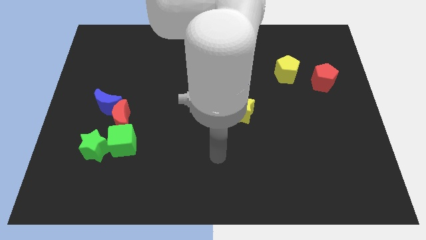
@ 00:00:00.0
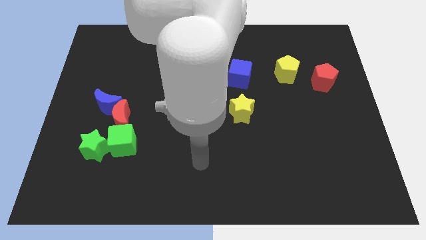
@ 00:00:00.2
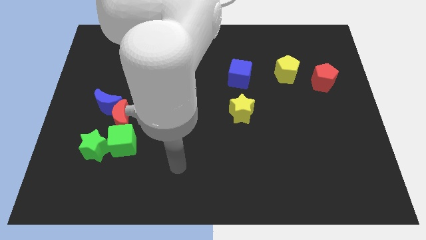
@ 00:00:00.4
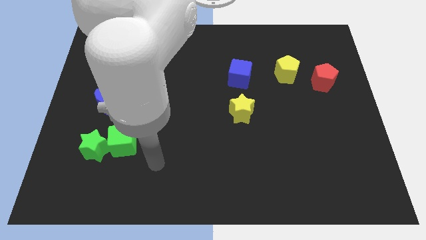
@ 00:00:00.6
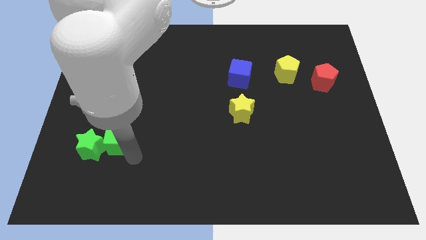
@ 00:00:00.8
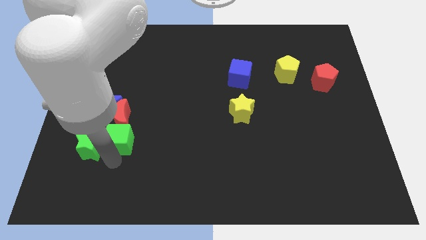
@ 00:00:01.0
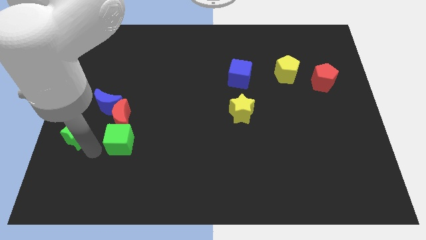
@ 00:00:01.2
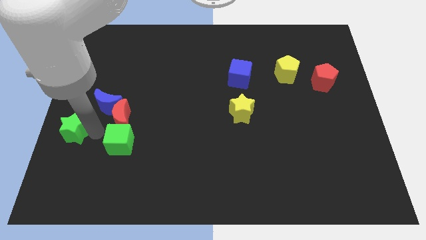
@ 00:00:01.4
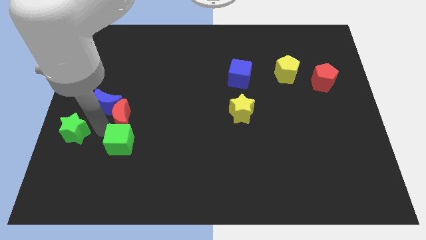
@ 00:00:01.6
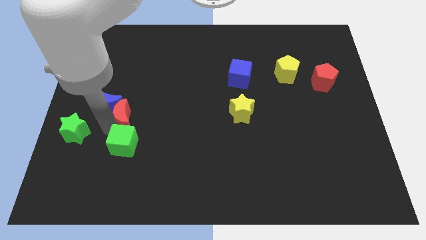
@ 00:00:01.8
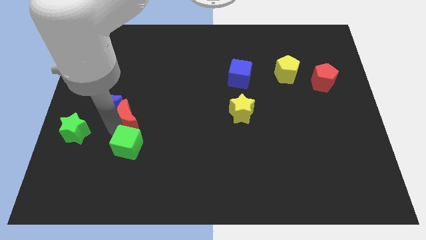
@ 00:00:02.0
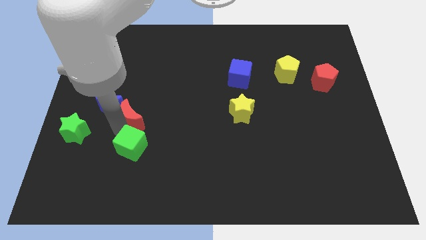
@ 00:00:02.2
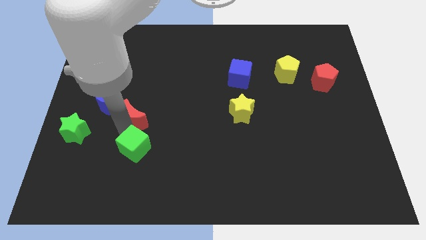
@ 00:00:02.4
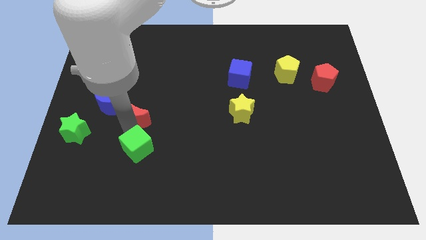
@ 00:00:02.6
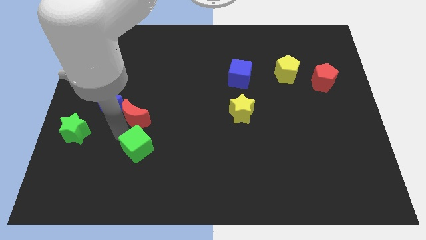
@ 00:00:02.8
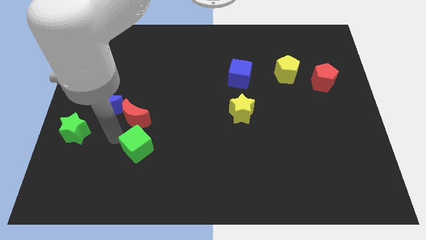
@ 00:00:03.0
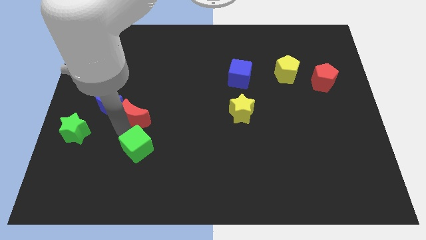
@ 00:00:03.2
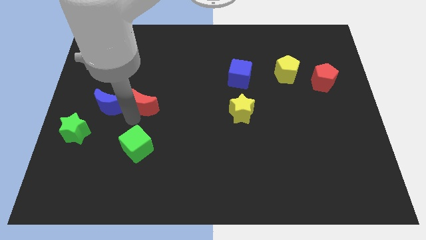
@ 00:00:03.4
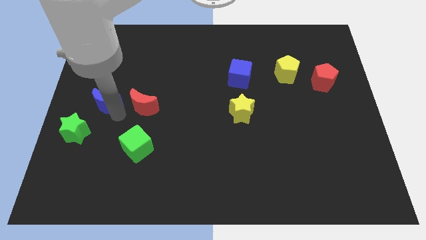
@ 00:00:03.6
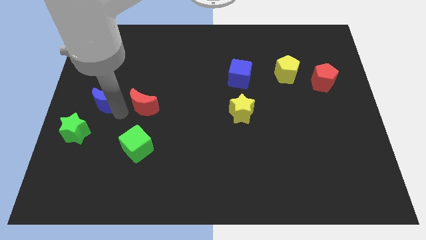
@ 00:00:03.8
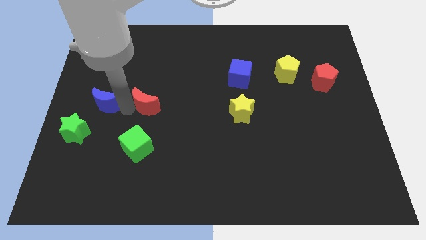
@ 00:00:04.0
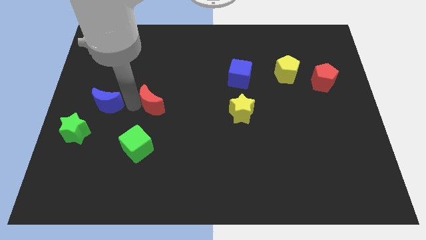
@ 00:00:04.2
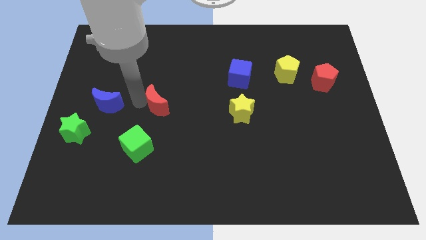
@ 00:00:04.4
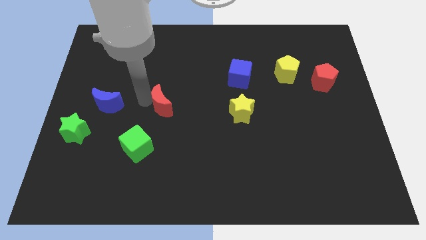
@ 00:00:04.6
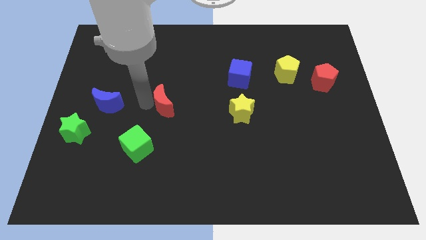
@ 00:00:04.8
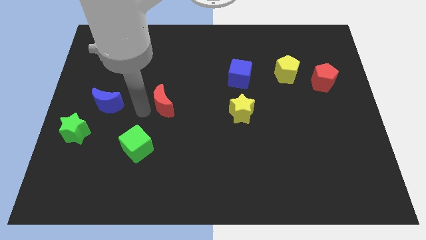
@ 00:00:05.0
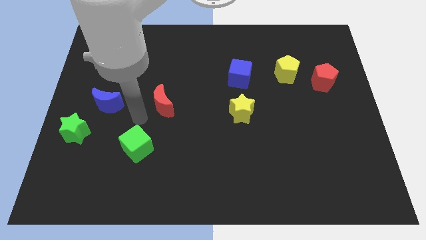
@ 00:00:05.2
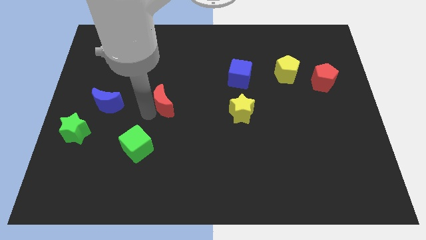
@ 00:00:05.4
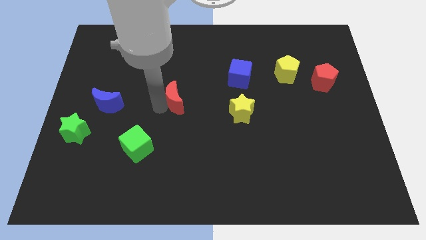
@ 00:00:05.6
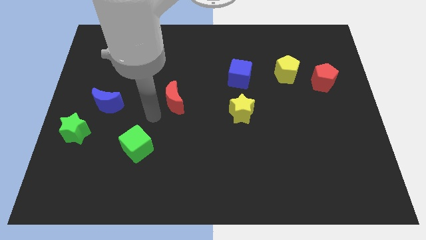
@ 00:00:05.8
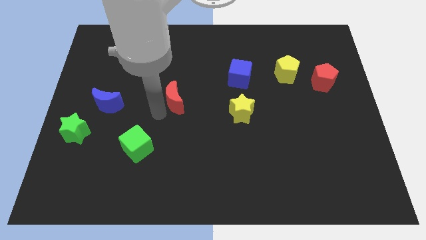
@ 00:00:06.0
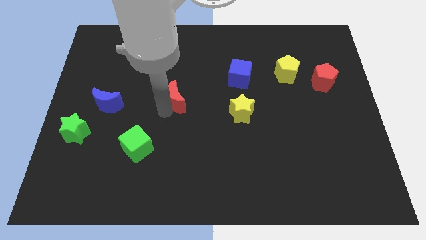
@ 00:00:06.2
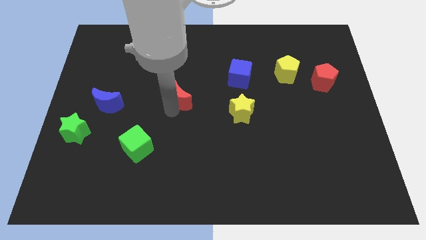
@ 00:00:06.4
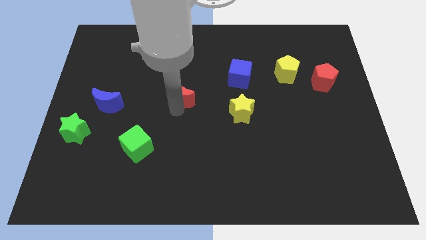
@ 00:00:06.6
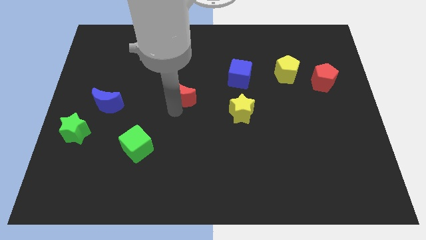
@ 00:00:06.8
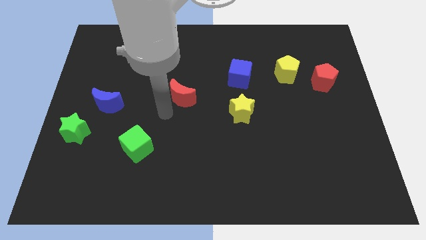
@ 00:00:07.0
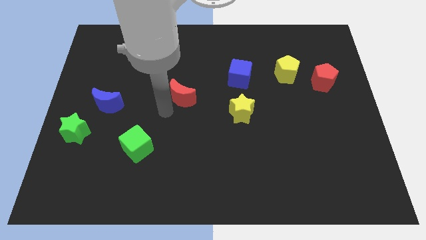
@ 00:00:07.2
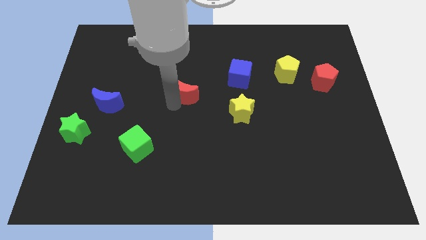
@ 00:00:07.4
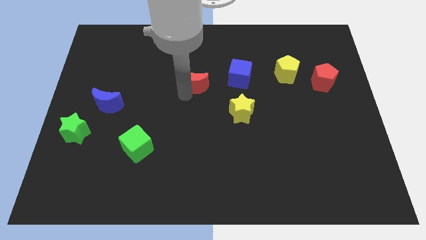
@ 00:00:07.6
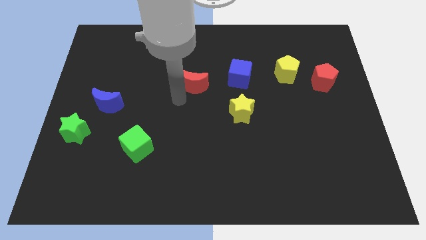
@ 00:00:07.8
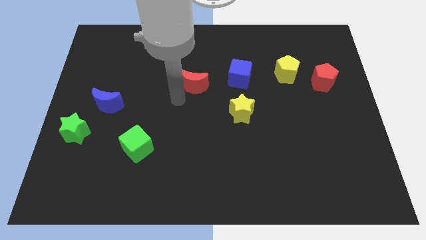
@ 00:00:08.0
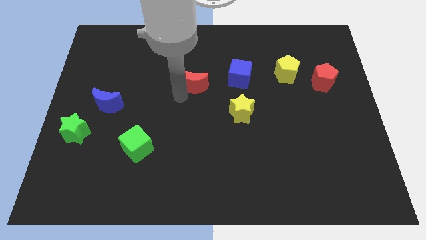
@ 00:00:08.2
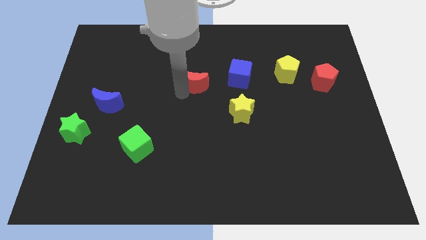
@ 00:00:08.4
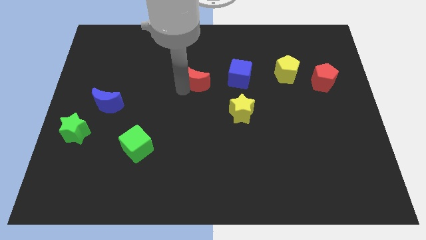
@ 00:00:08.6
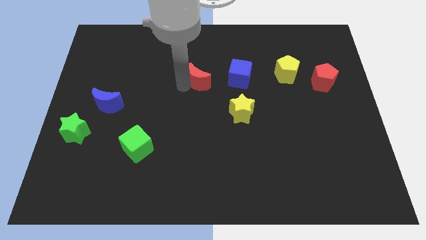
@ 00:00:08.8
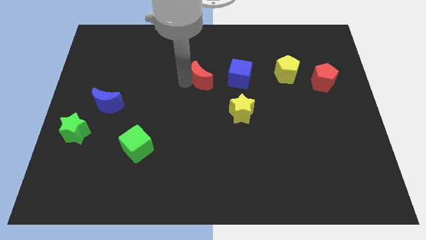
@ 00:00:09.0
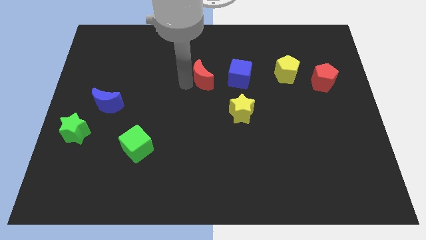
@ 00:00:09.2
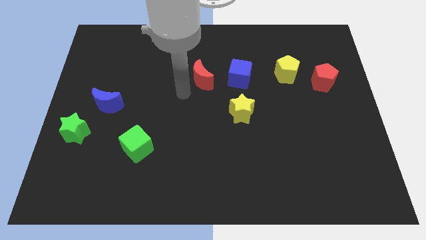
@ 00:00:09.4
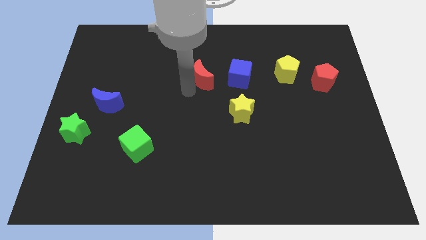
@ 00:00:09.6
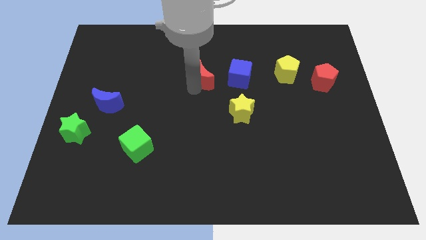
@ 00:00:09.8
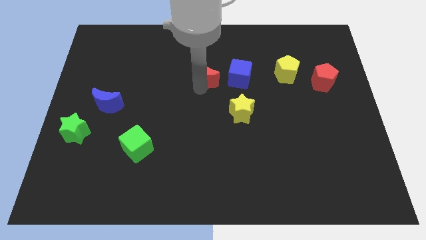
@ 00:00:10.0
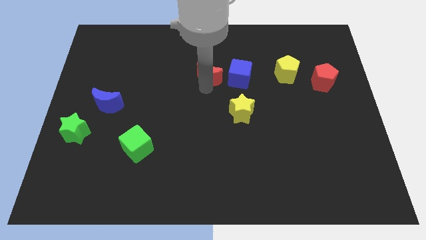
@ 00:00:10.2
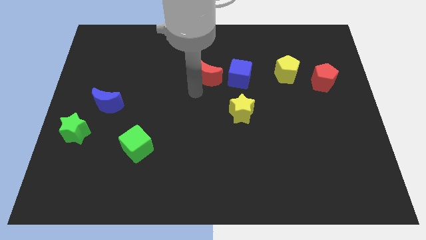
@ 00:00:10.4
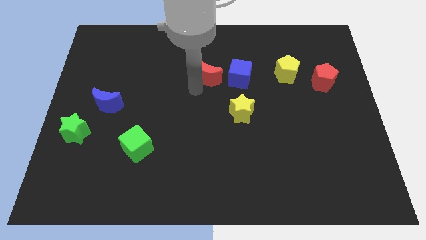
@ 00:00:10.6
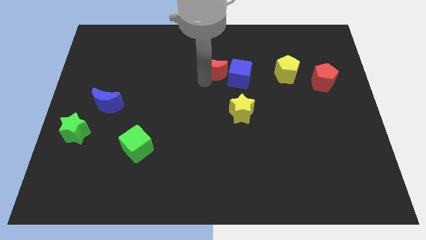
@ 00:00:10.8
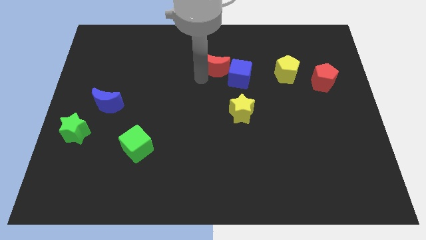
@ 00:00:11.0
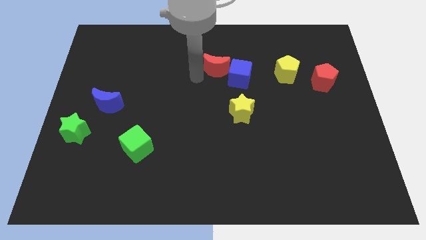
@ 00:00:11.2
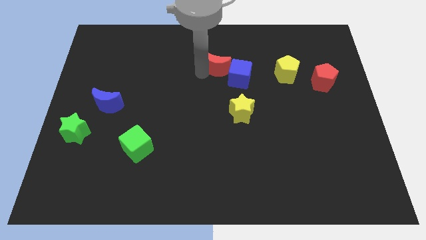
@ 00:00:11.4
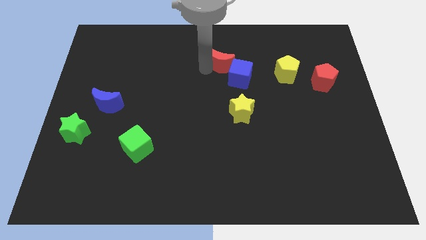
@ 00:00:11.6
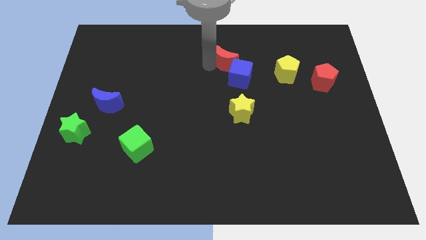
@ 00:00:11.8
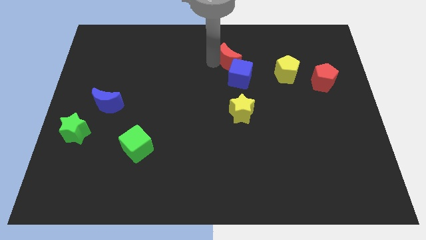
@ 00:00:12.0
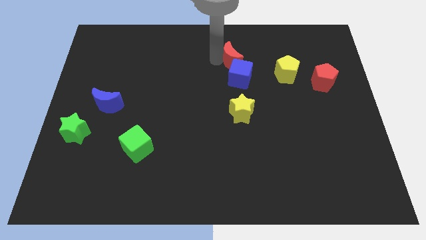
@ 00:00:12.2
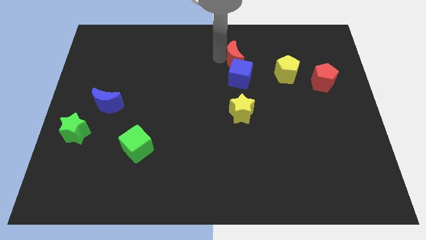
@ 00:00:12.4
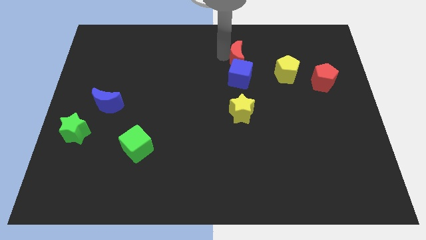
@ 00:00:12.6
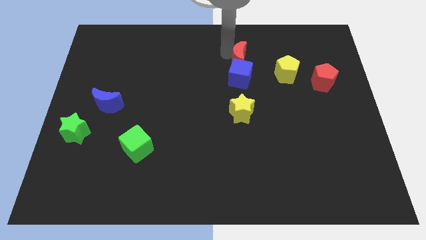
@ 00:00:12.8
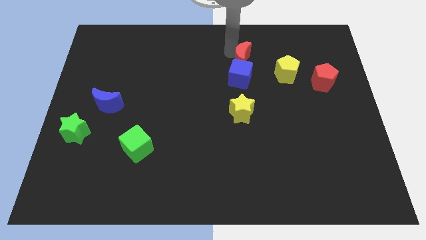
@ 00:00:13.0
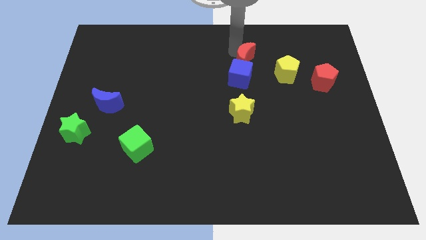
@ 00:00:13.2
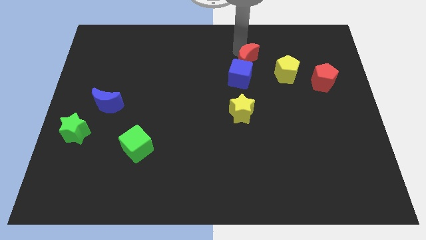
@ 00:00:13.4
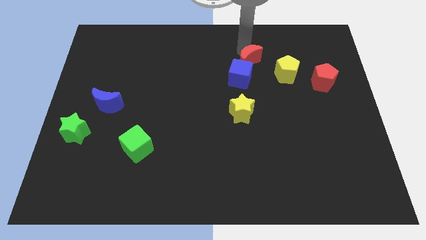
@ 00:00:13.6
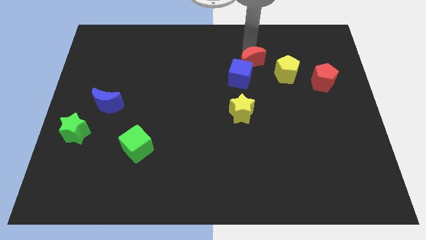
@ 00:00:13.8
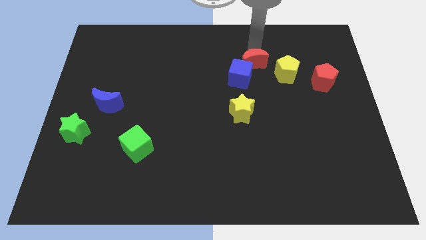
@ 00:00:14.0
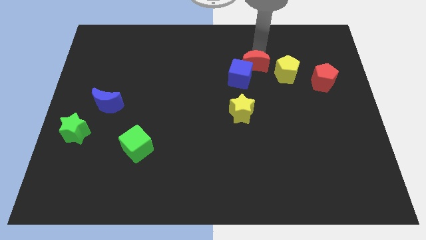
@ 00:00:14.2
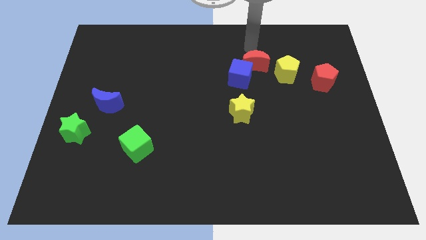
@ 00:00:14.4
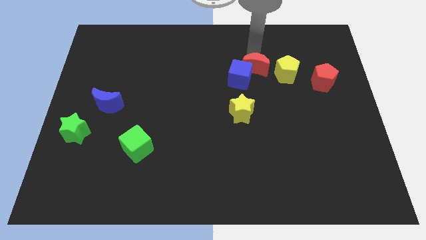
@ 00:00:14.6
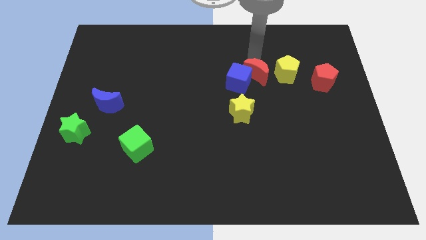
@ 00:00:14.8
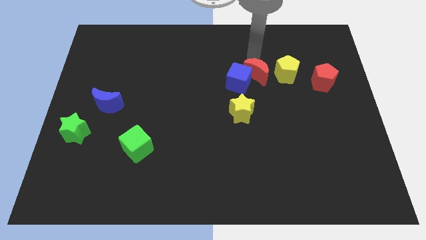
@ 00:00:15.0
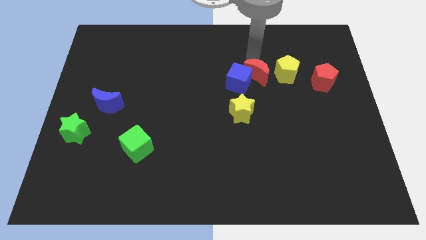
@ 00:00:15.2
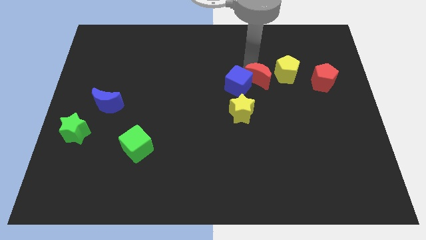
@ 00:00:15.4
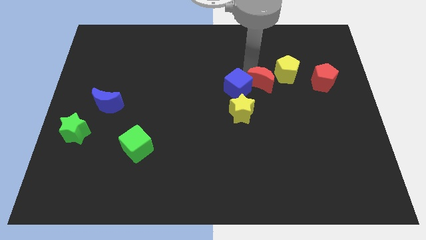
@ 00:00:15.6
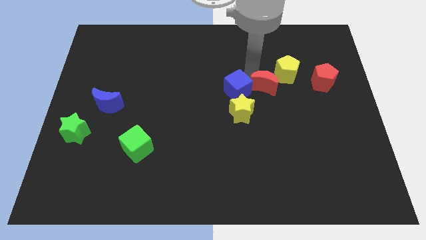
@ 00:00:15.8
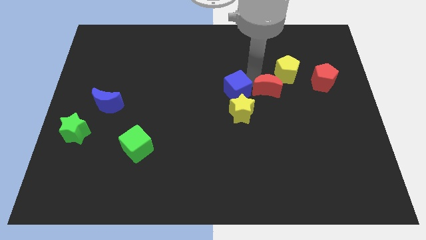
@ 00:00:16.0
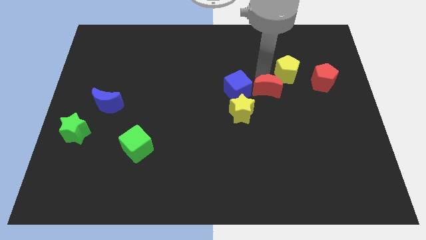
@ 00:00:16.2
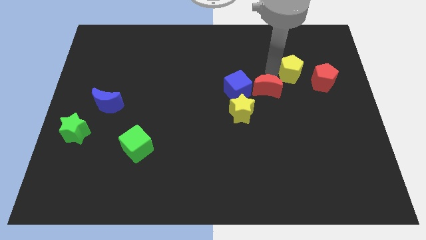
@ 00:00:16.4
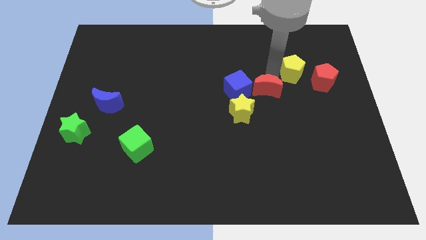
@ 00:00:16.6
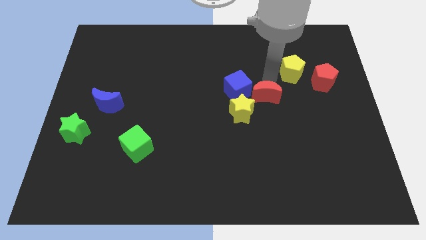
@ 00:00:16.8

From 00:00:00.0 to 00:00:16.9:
push the red moon to the bottom right side of the blue cube
